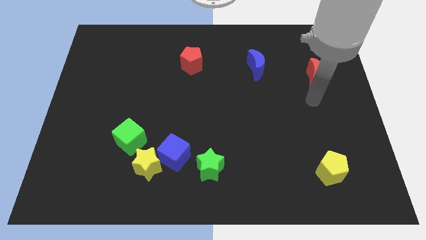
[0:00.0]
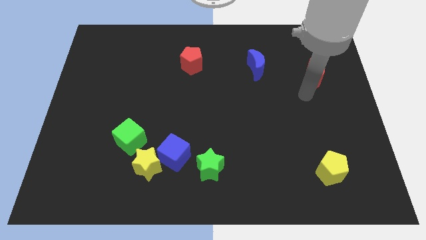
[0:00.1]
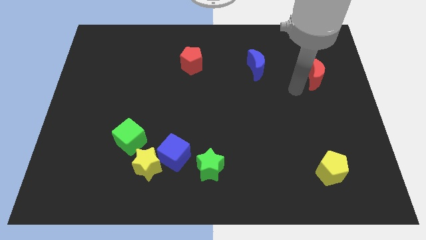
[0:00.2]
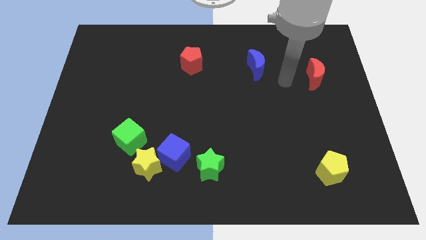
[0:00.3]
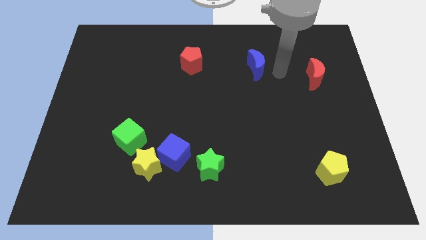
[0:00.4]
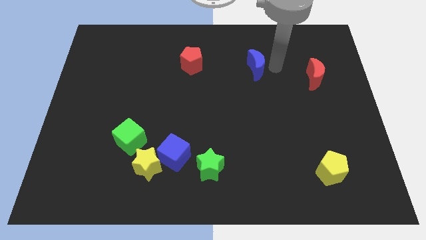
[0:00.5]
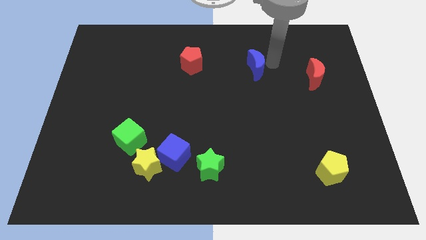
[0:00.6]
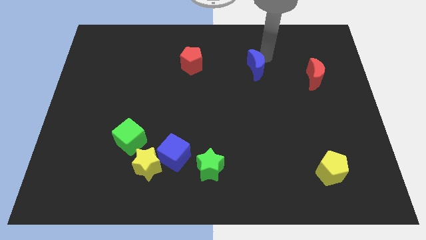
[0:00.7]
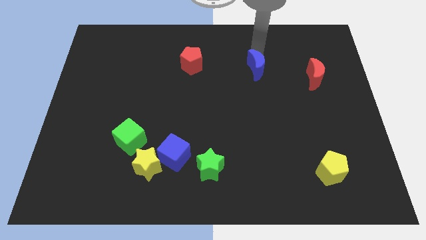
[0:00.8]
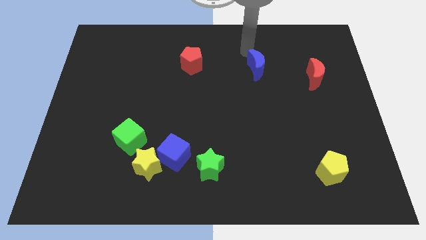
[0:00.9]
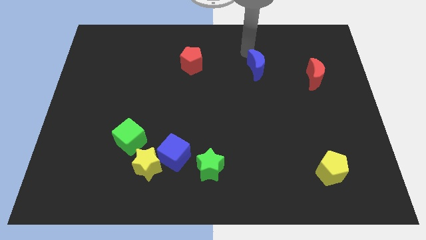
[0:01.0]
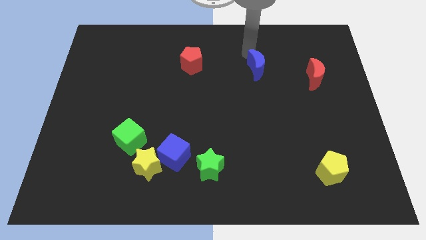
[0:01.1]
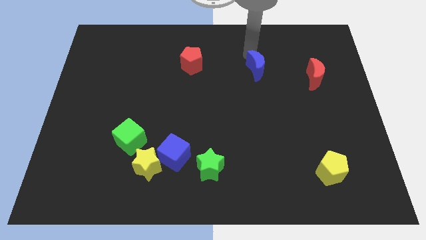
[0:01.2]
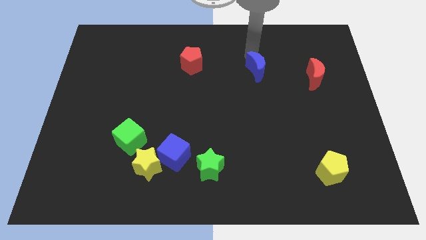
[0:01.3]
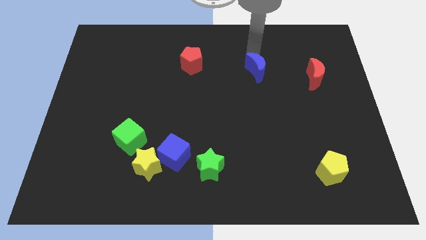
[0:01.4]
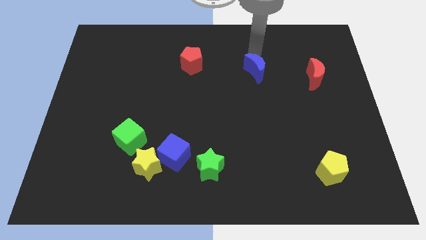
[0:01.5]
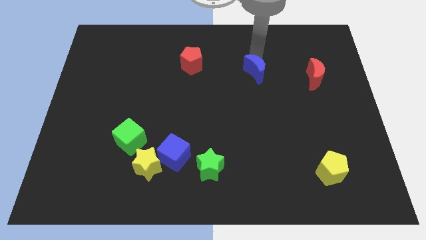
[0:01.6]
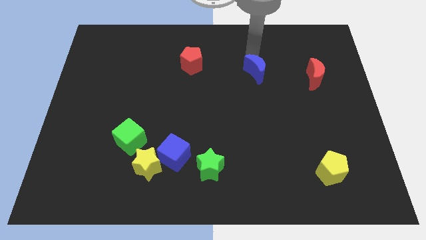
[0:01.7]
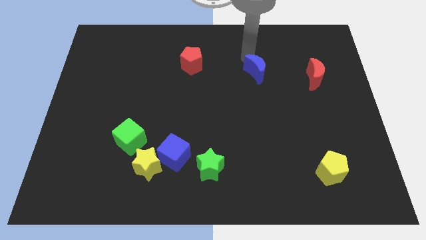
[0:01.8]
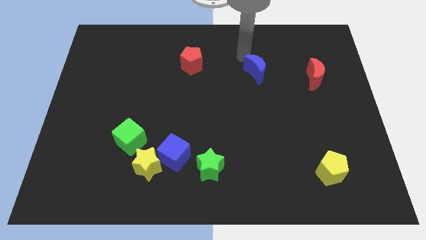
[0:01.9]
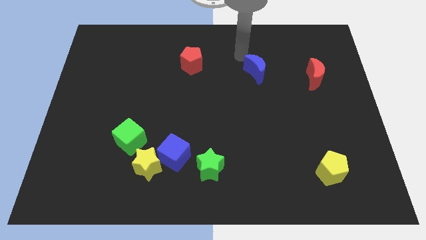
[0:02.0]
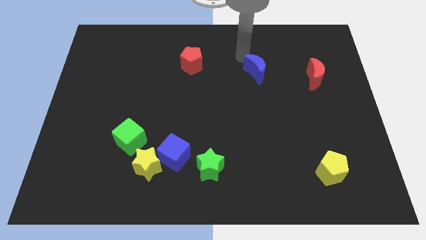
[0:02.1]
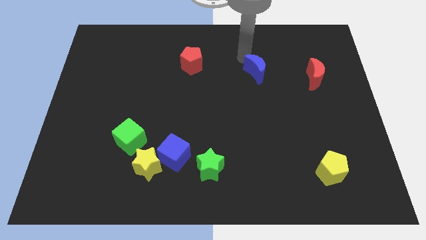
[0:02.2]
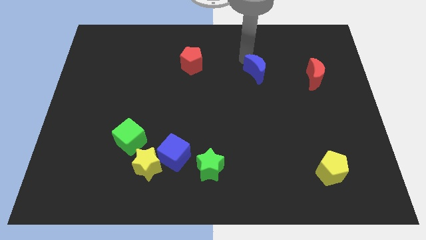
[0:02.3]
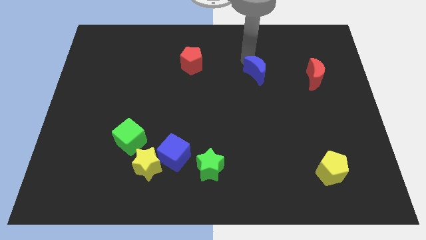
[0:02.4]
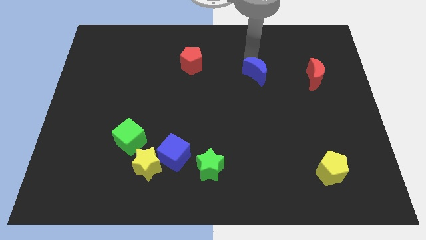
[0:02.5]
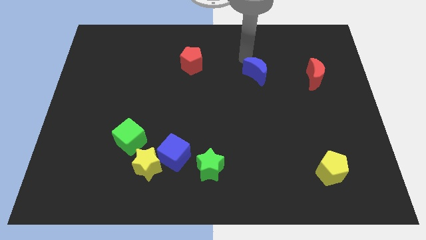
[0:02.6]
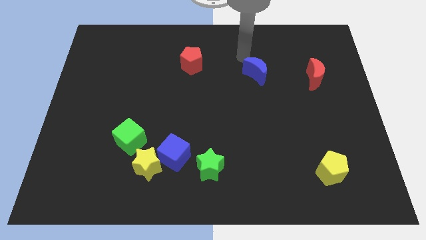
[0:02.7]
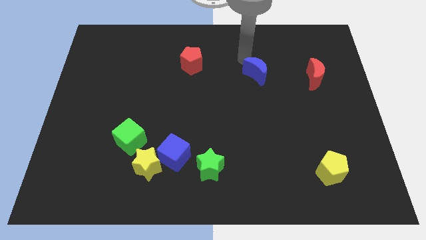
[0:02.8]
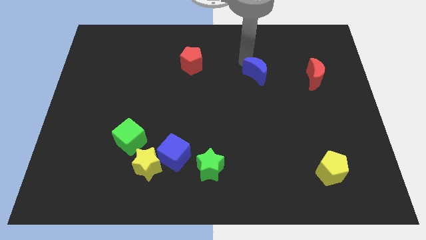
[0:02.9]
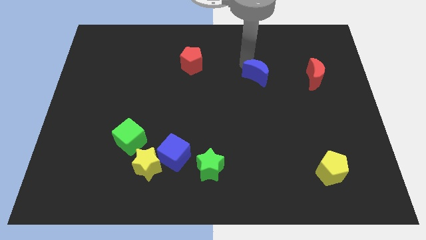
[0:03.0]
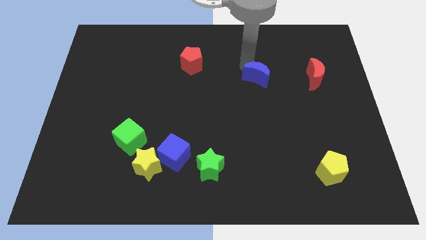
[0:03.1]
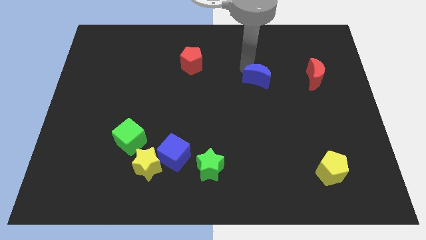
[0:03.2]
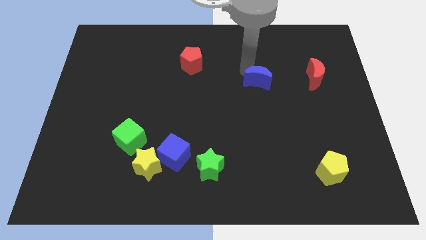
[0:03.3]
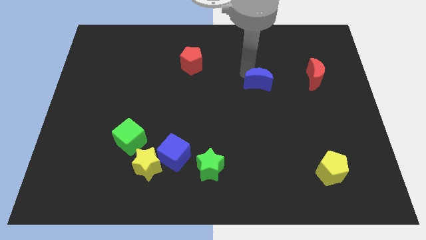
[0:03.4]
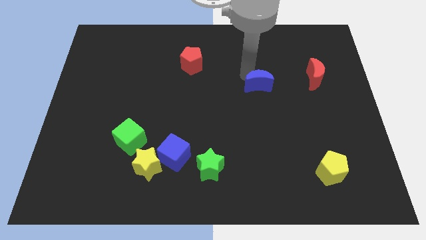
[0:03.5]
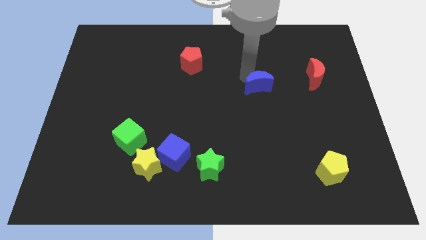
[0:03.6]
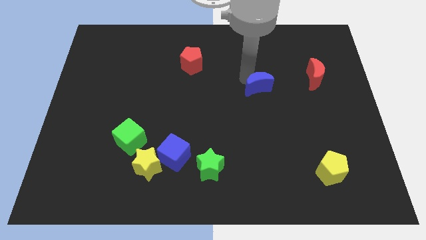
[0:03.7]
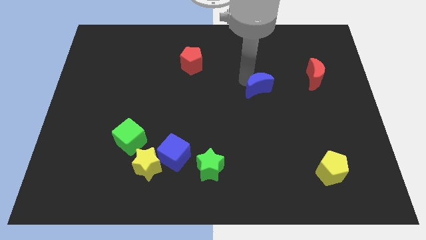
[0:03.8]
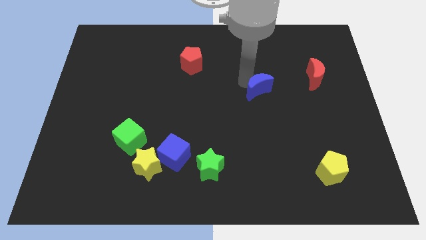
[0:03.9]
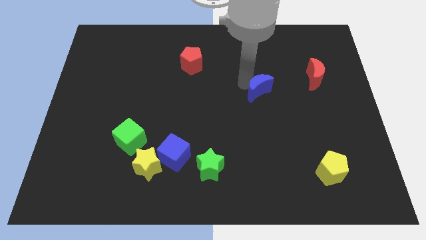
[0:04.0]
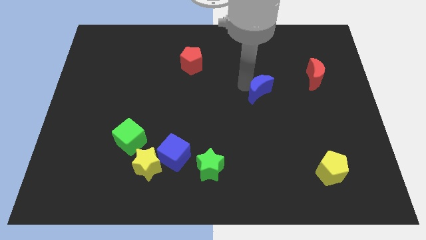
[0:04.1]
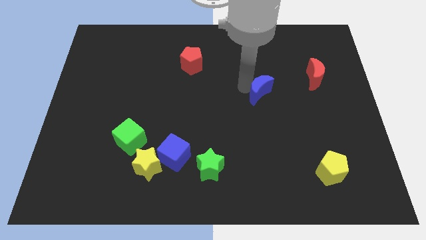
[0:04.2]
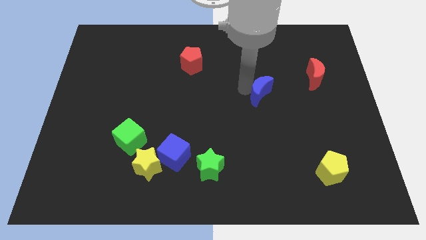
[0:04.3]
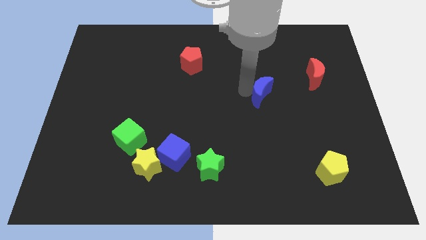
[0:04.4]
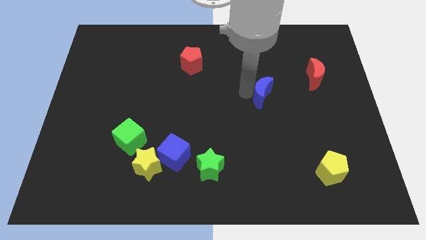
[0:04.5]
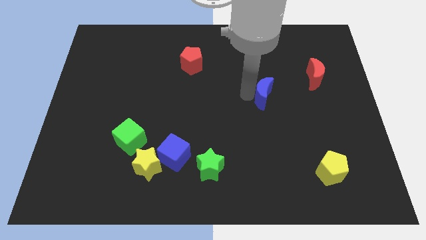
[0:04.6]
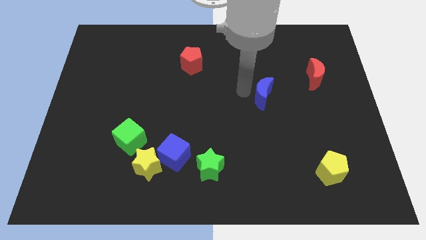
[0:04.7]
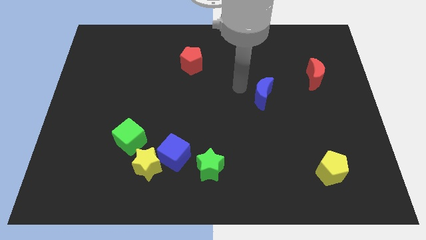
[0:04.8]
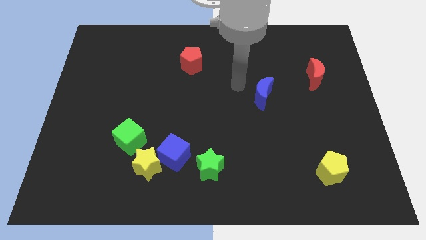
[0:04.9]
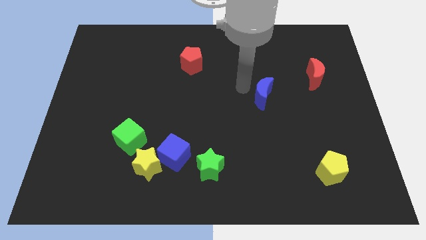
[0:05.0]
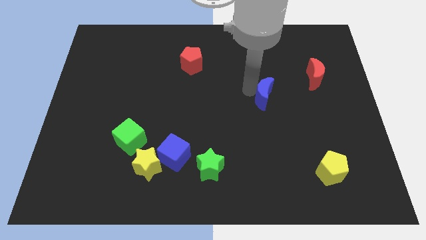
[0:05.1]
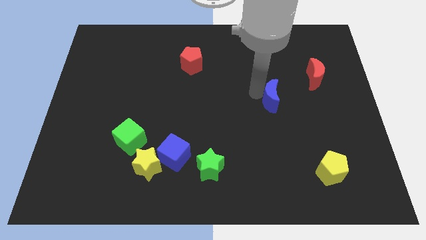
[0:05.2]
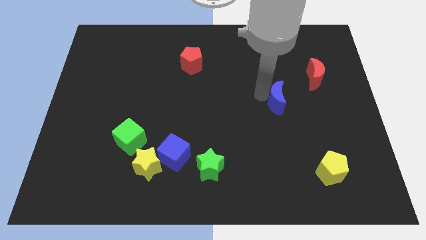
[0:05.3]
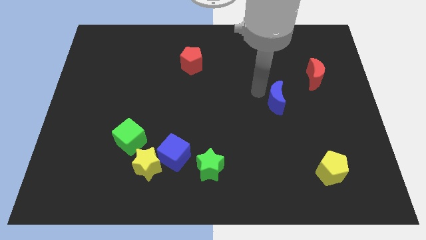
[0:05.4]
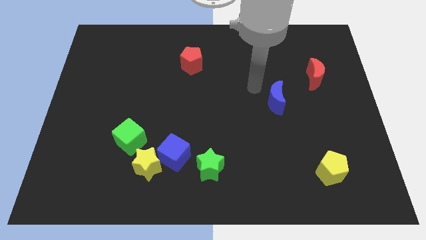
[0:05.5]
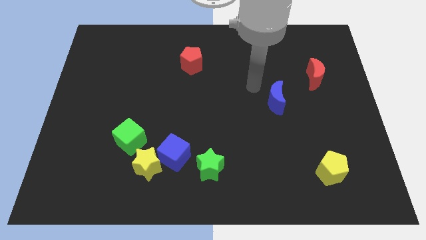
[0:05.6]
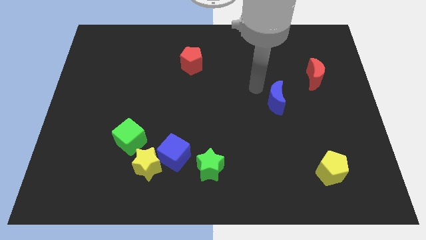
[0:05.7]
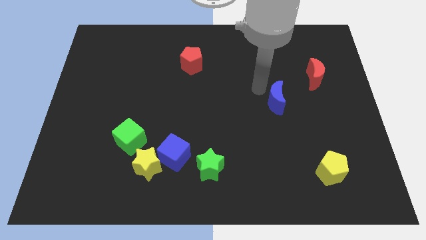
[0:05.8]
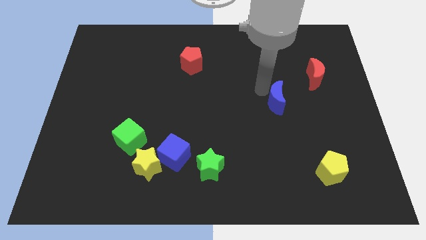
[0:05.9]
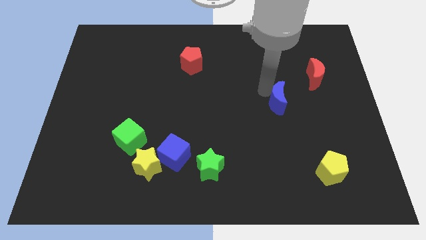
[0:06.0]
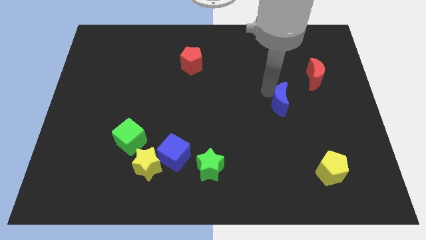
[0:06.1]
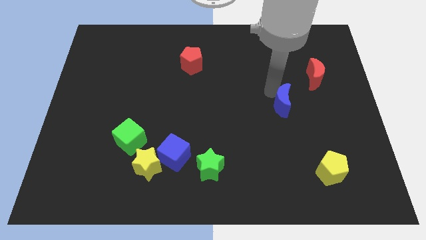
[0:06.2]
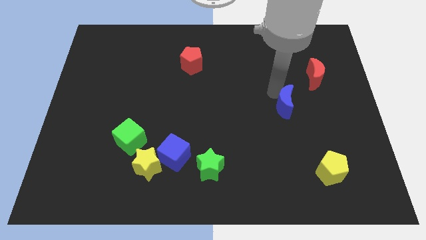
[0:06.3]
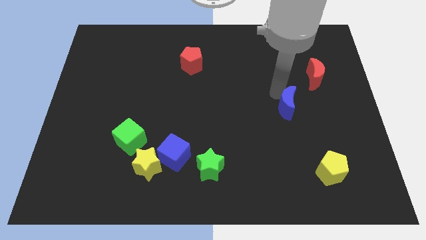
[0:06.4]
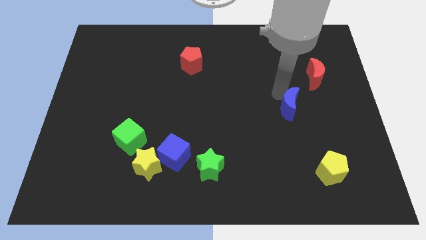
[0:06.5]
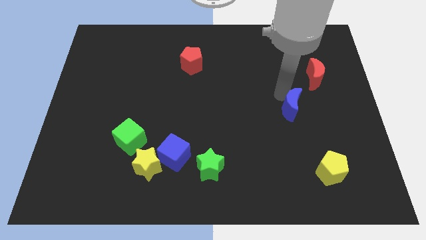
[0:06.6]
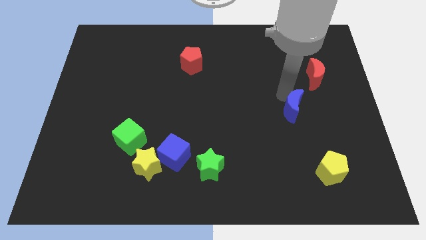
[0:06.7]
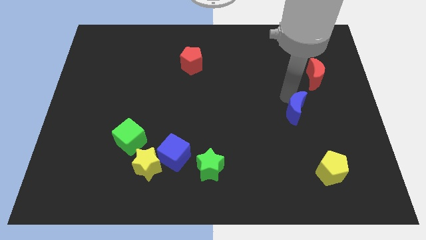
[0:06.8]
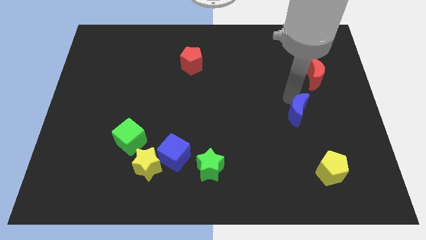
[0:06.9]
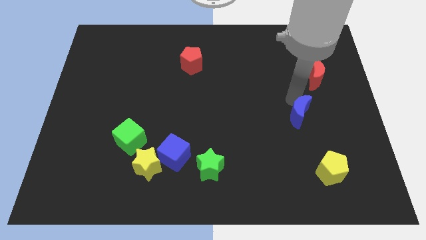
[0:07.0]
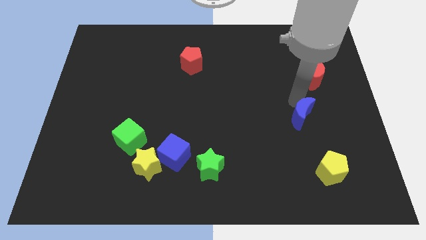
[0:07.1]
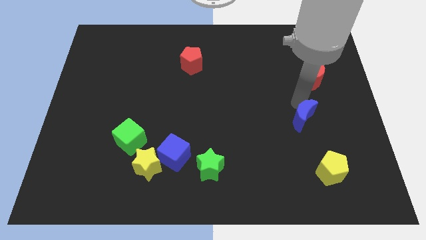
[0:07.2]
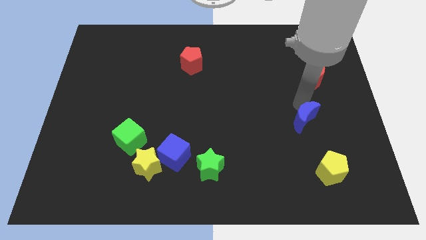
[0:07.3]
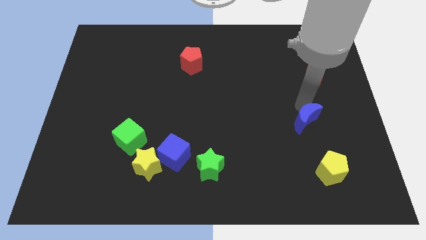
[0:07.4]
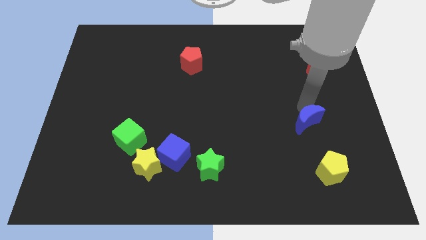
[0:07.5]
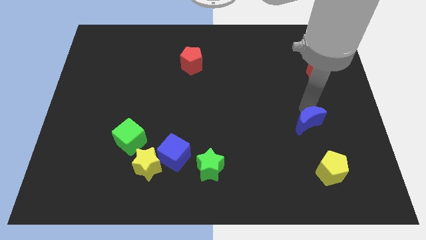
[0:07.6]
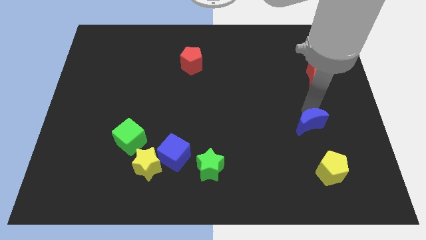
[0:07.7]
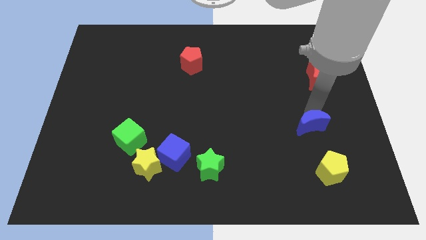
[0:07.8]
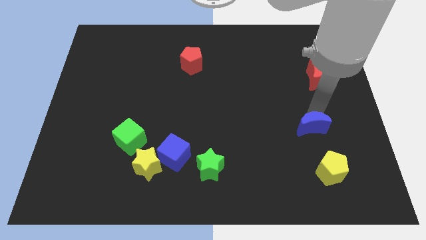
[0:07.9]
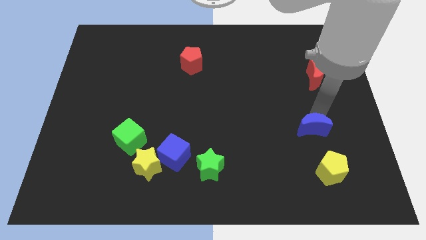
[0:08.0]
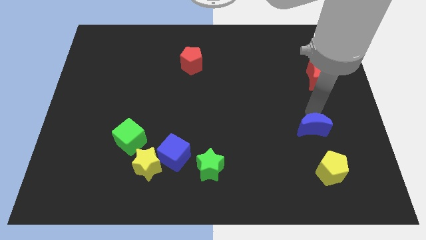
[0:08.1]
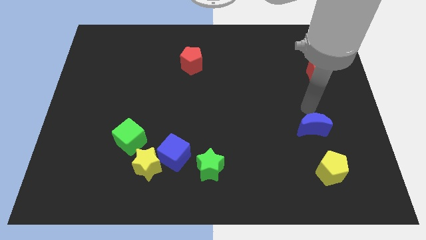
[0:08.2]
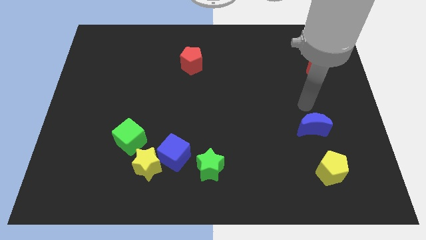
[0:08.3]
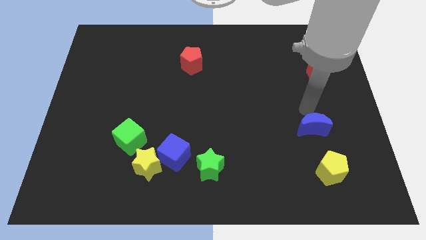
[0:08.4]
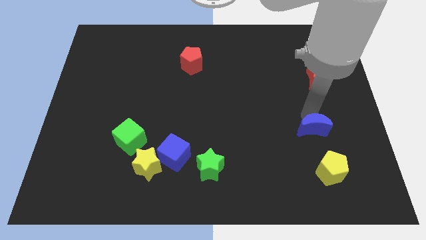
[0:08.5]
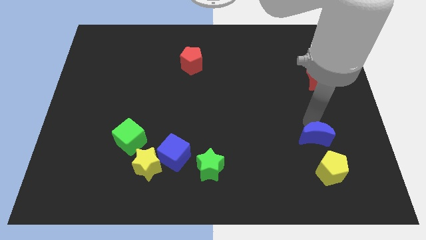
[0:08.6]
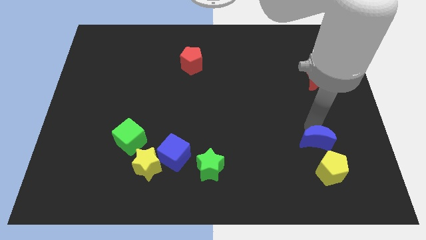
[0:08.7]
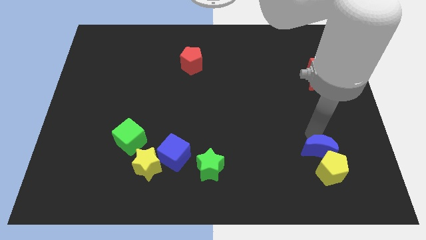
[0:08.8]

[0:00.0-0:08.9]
put the blue moon next to the yellow pentagon
